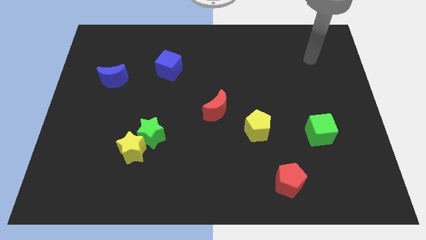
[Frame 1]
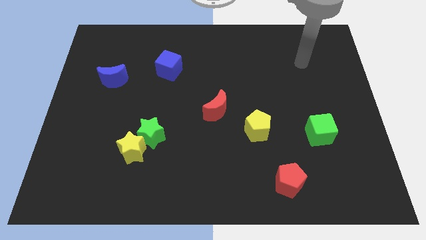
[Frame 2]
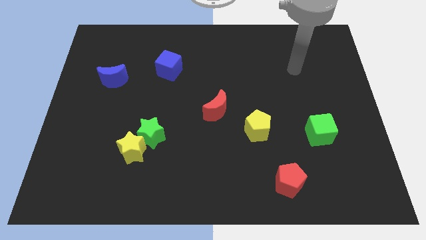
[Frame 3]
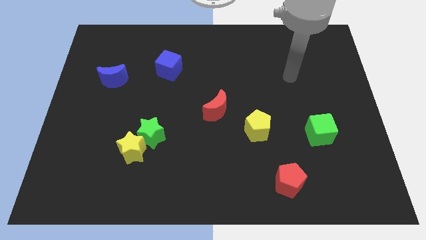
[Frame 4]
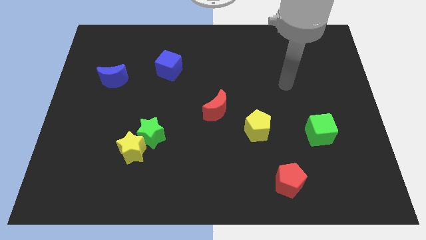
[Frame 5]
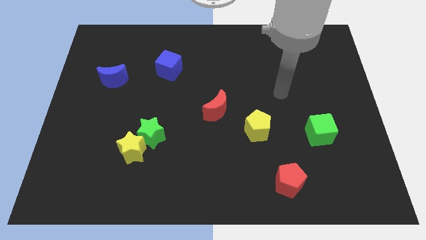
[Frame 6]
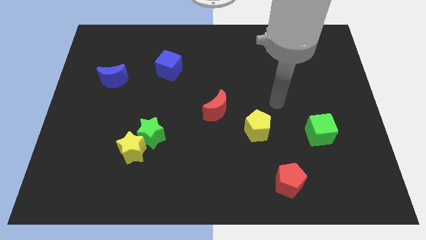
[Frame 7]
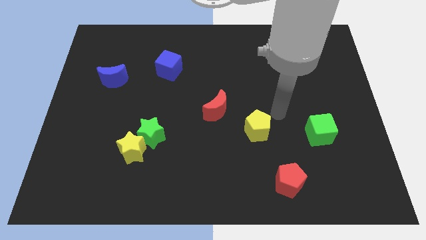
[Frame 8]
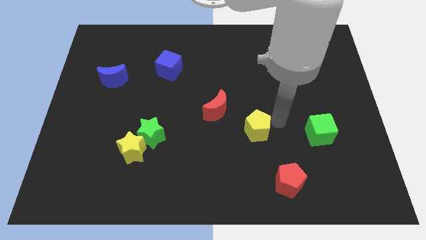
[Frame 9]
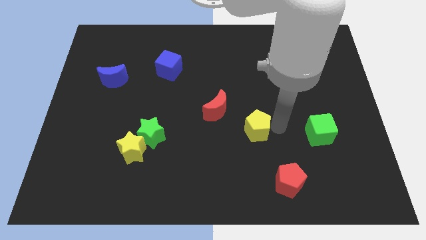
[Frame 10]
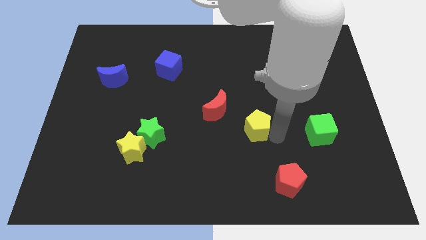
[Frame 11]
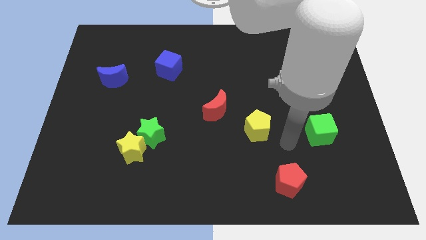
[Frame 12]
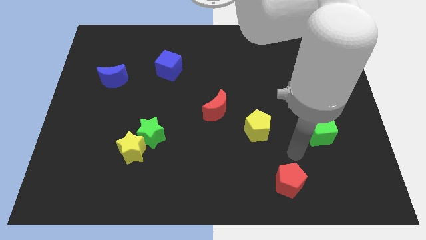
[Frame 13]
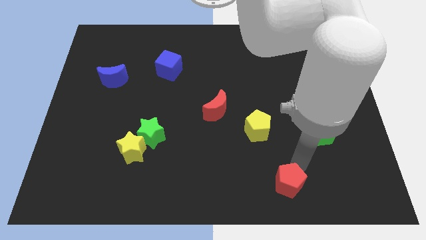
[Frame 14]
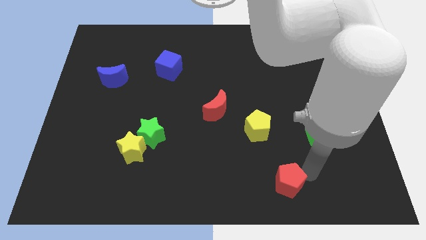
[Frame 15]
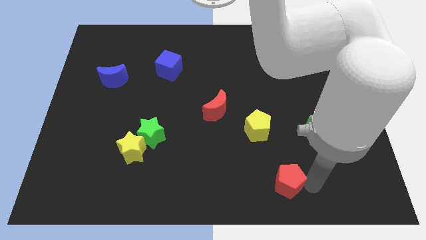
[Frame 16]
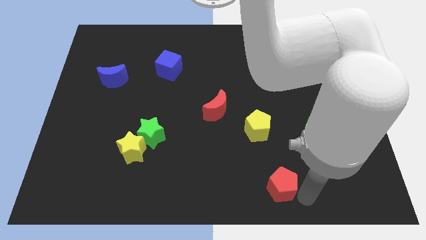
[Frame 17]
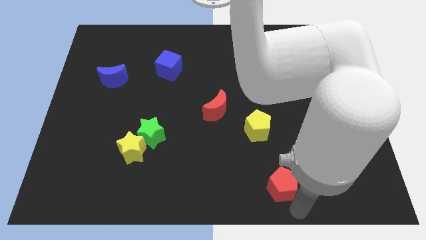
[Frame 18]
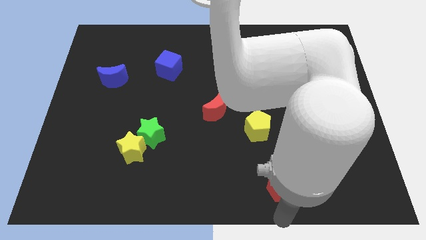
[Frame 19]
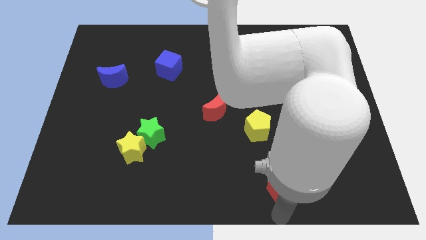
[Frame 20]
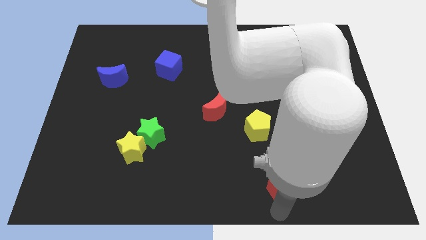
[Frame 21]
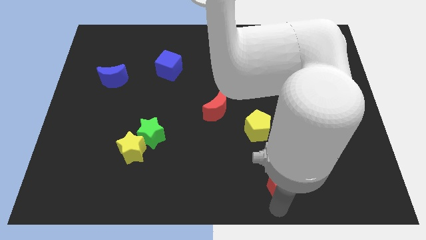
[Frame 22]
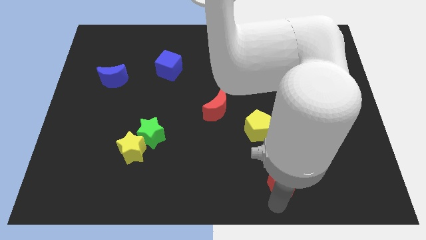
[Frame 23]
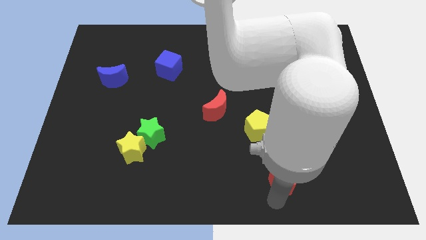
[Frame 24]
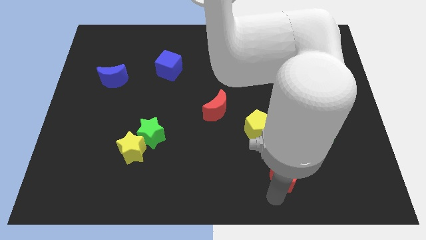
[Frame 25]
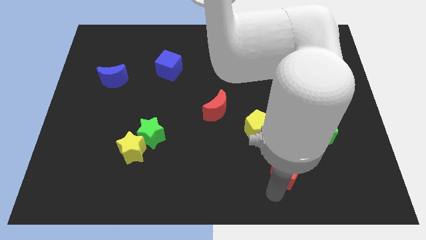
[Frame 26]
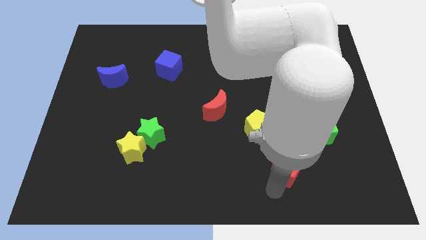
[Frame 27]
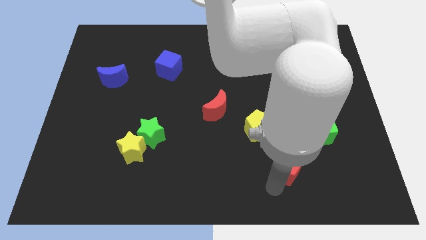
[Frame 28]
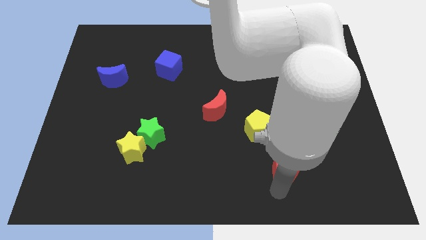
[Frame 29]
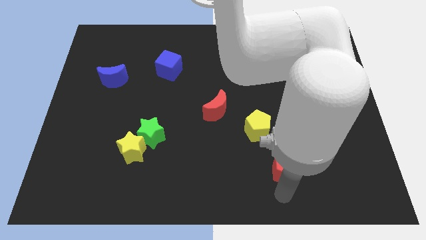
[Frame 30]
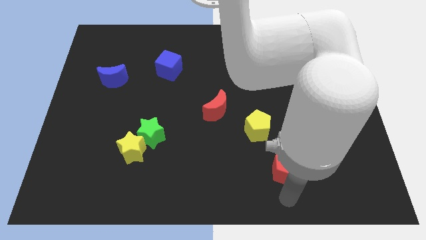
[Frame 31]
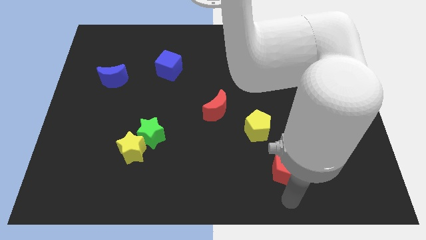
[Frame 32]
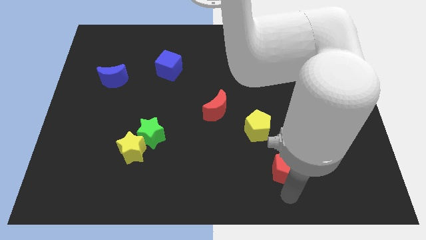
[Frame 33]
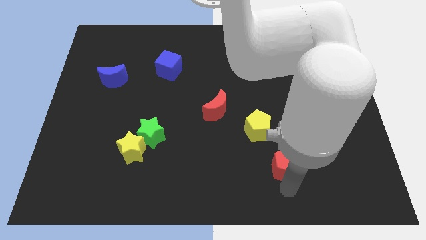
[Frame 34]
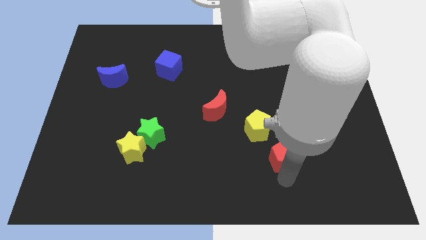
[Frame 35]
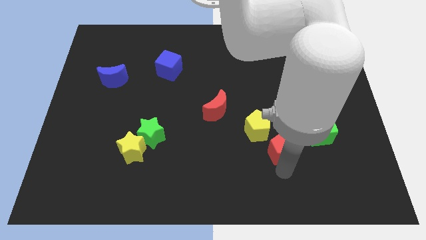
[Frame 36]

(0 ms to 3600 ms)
slightly push the red pentagon up

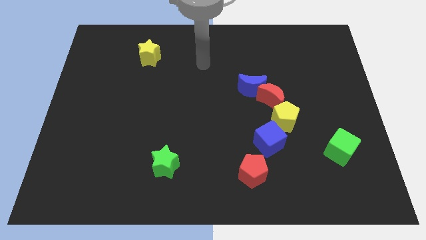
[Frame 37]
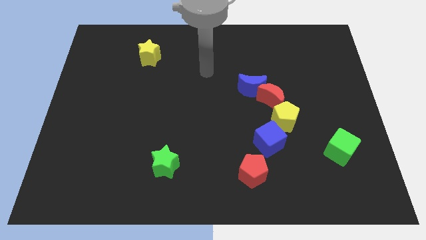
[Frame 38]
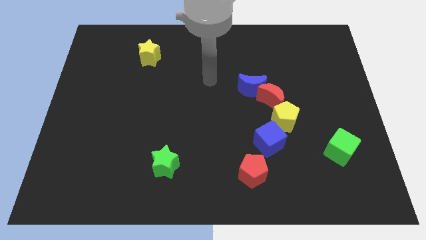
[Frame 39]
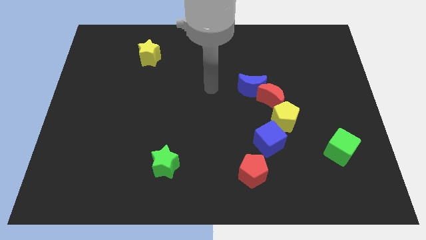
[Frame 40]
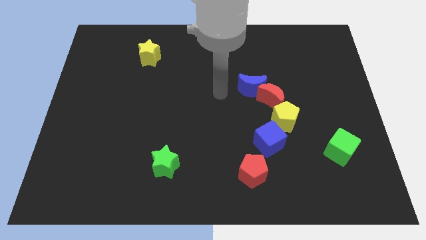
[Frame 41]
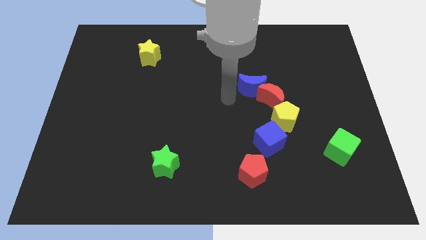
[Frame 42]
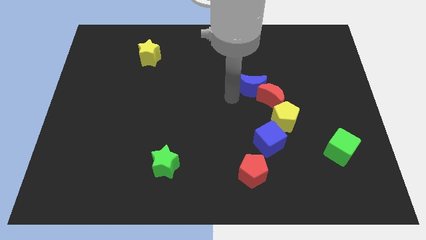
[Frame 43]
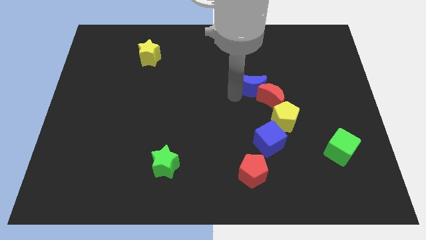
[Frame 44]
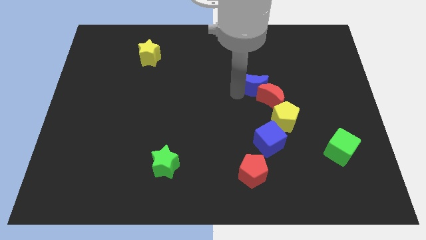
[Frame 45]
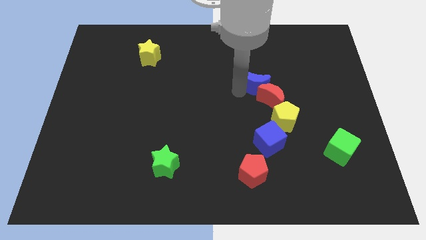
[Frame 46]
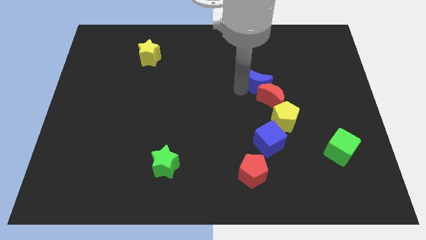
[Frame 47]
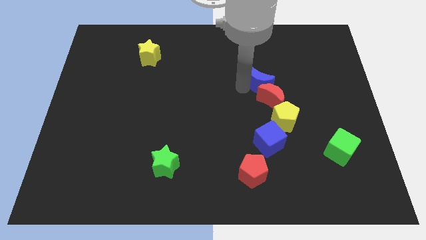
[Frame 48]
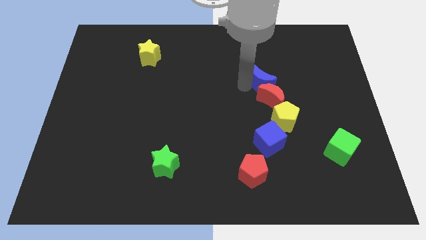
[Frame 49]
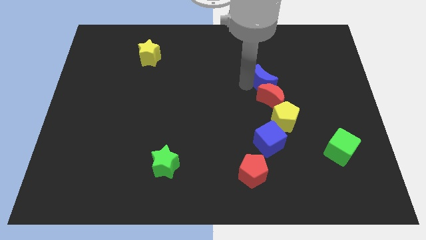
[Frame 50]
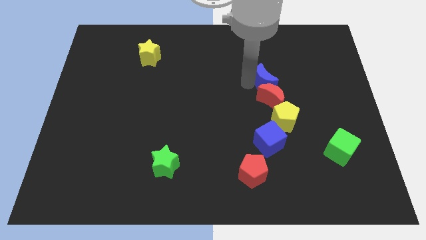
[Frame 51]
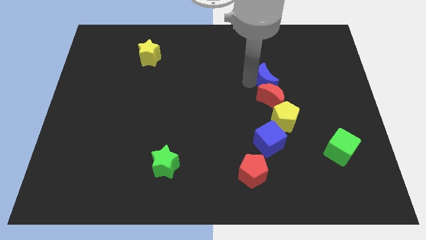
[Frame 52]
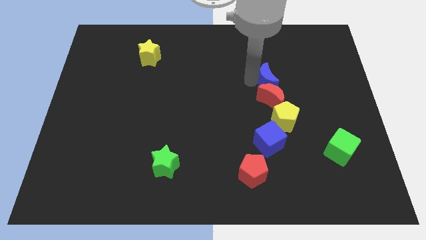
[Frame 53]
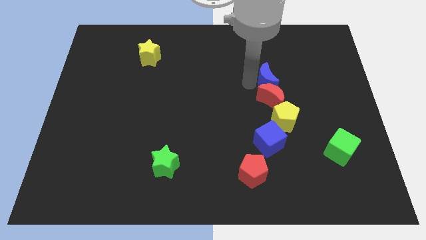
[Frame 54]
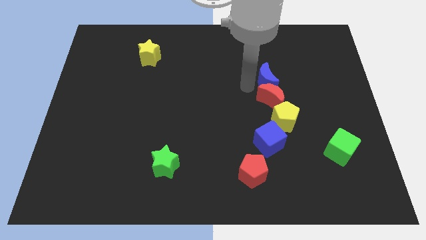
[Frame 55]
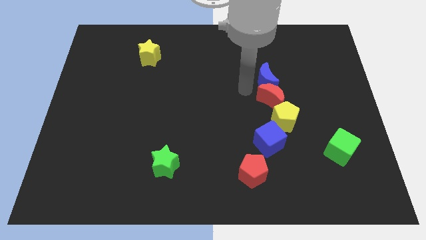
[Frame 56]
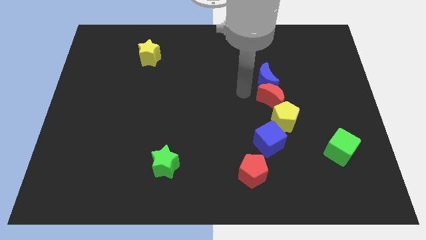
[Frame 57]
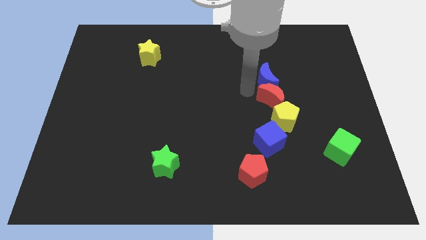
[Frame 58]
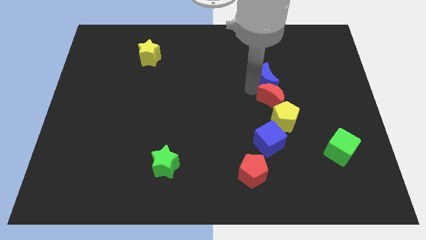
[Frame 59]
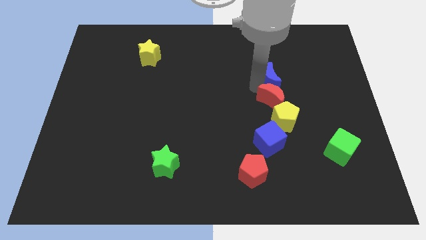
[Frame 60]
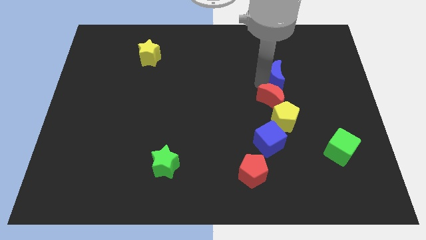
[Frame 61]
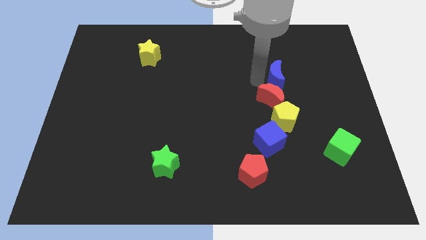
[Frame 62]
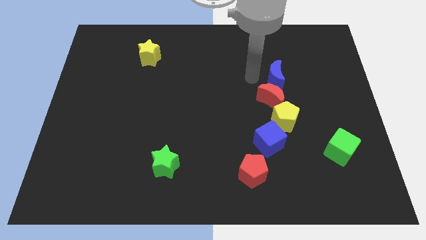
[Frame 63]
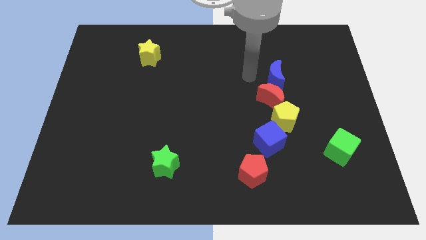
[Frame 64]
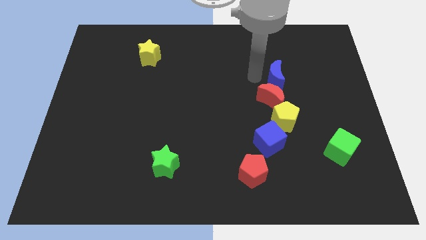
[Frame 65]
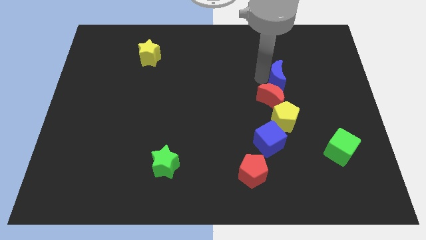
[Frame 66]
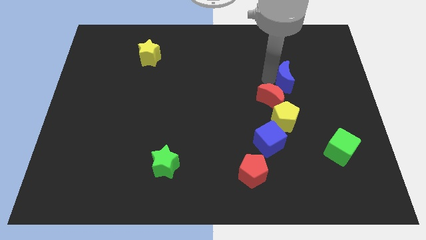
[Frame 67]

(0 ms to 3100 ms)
slightly slide the blue moon to the right

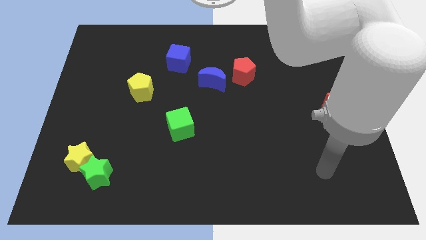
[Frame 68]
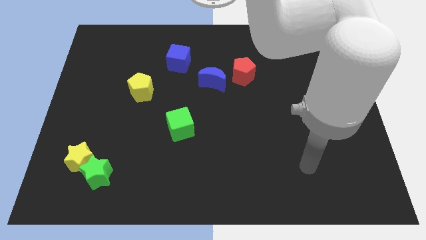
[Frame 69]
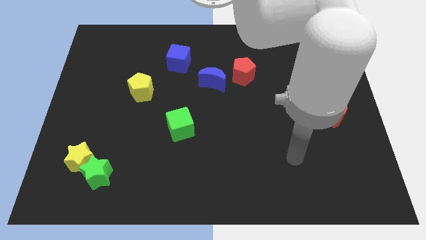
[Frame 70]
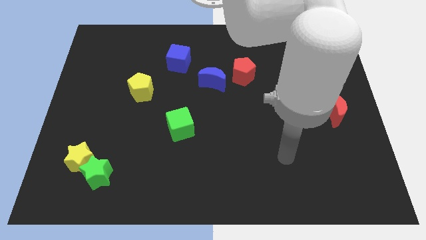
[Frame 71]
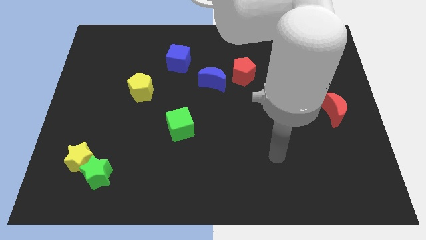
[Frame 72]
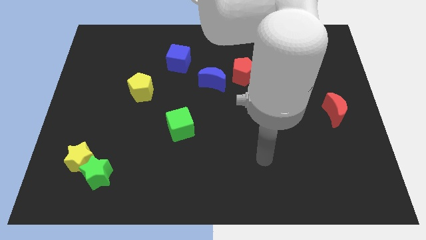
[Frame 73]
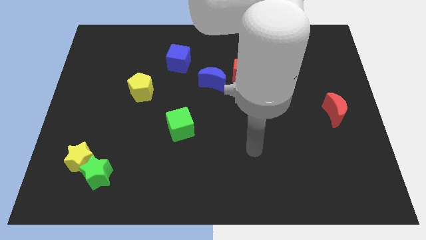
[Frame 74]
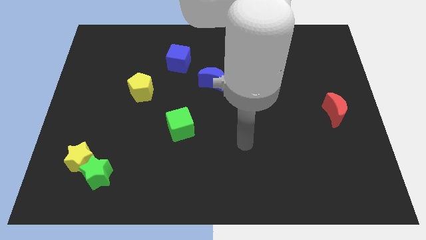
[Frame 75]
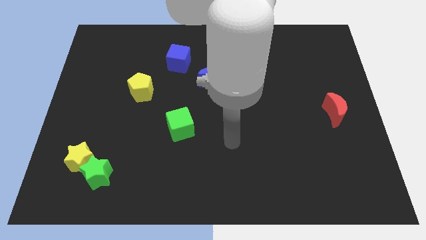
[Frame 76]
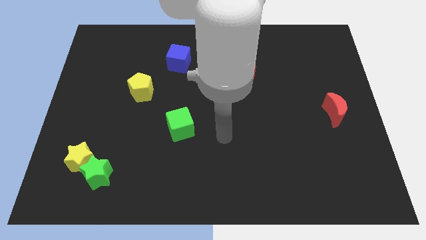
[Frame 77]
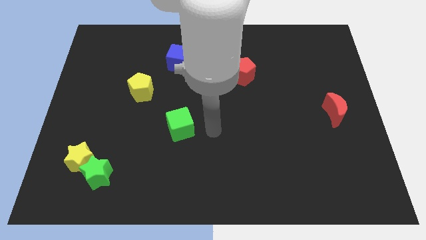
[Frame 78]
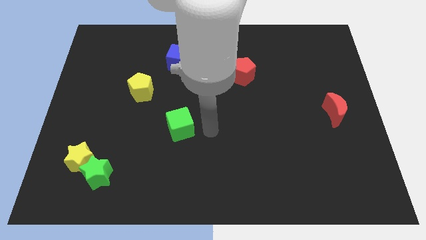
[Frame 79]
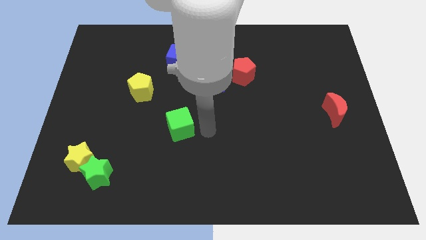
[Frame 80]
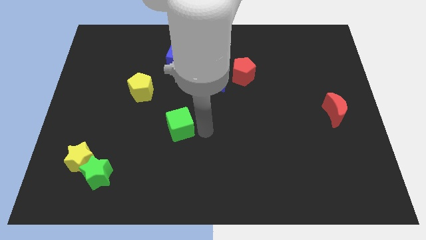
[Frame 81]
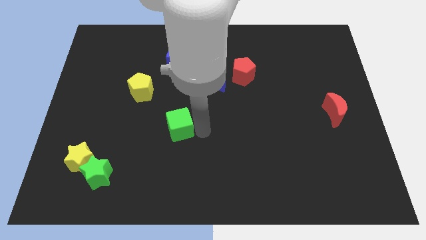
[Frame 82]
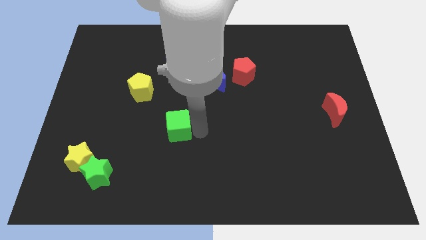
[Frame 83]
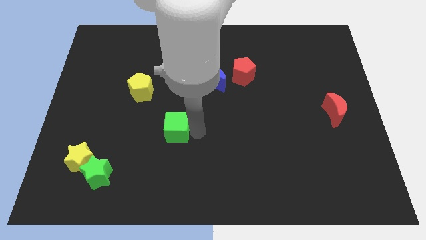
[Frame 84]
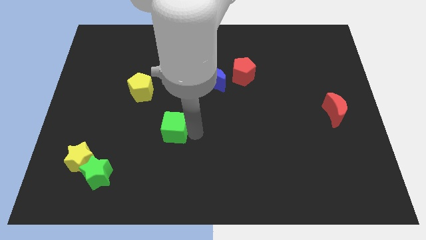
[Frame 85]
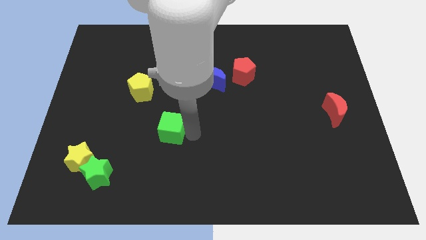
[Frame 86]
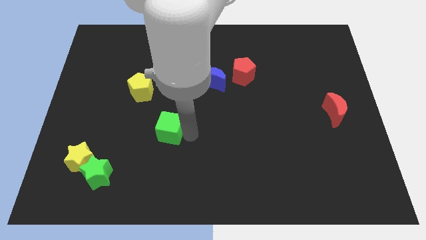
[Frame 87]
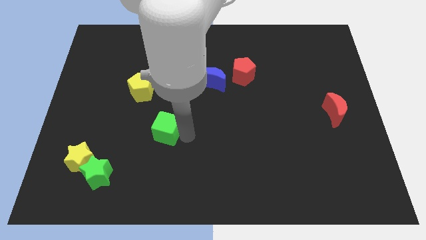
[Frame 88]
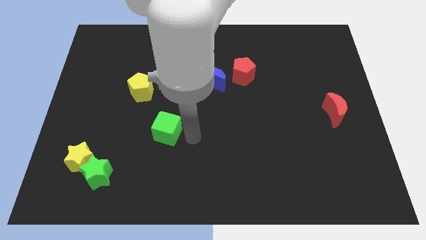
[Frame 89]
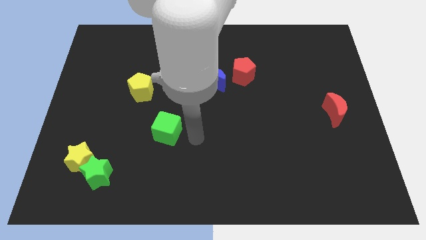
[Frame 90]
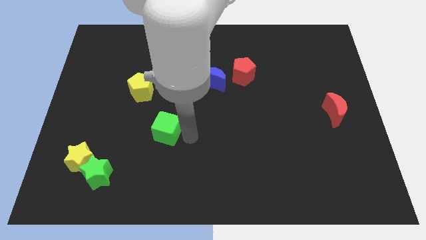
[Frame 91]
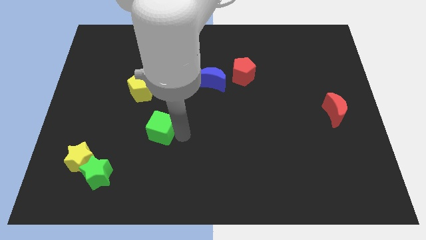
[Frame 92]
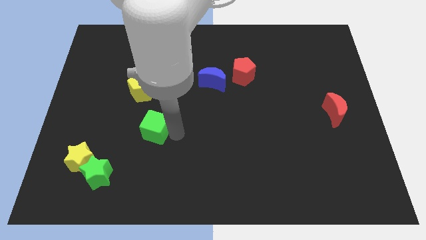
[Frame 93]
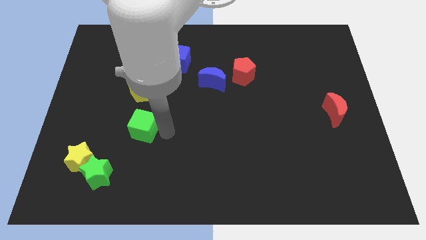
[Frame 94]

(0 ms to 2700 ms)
slightly slide the green cube to the left
